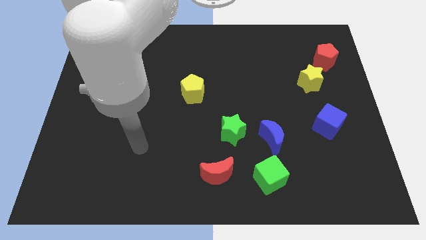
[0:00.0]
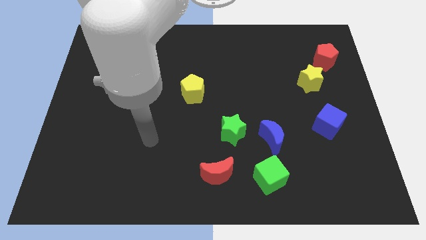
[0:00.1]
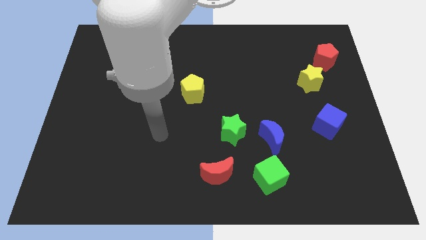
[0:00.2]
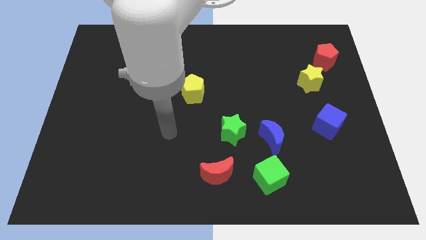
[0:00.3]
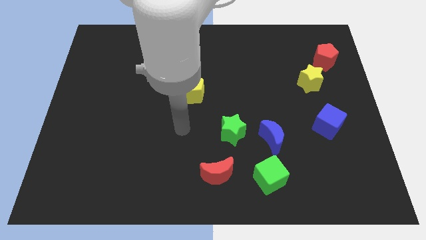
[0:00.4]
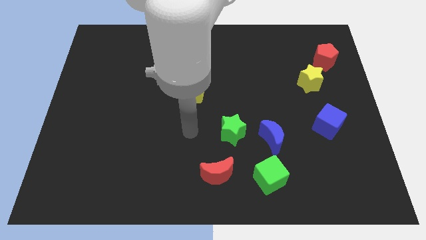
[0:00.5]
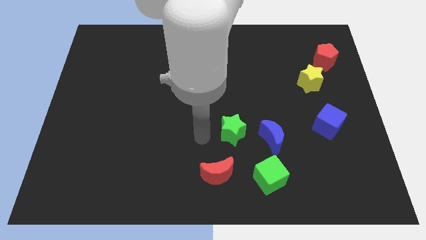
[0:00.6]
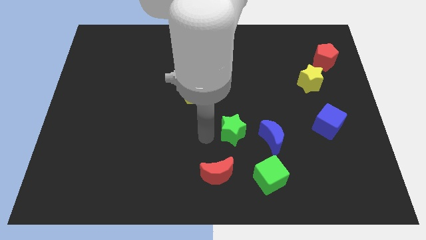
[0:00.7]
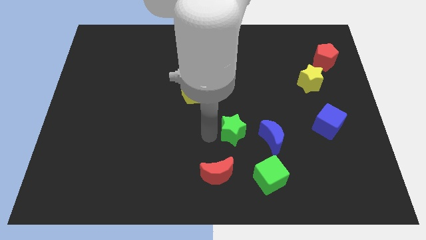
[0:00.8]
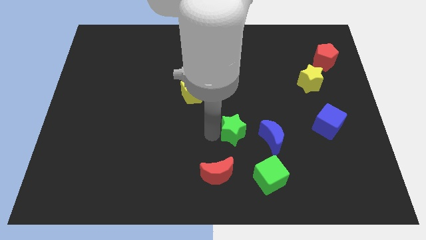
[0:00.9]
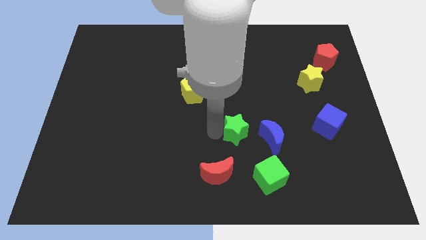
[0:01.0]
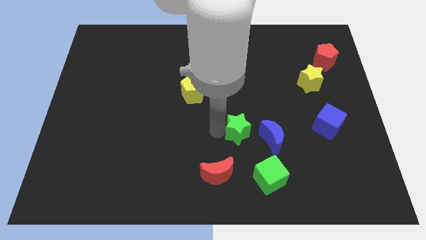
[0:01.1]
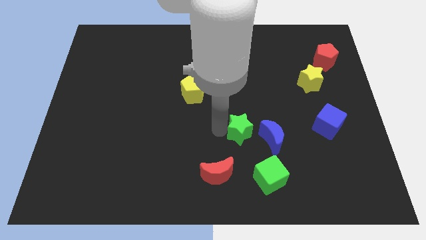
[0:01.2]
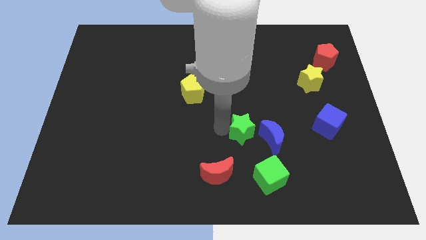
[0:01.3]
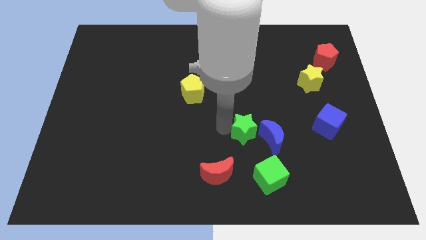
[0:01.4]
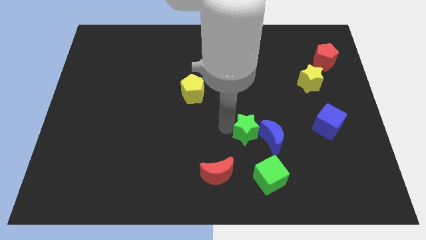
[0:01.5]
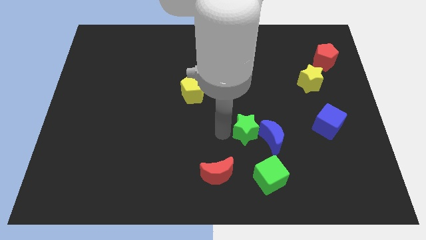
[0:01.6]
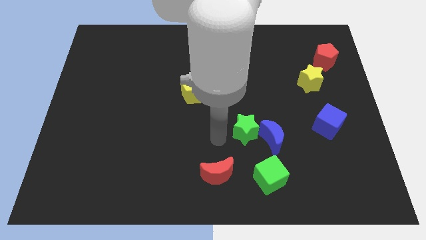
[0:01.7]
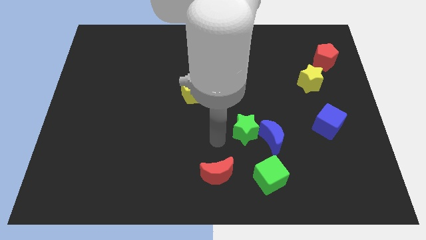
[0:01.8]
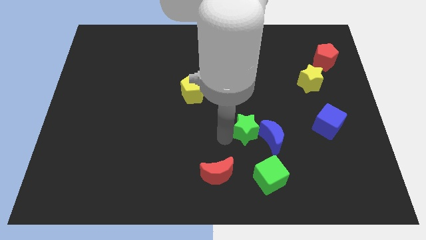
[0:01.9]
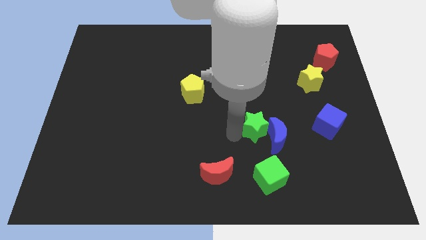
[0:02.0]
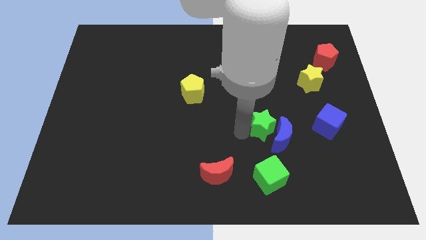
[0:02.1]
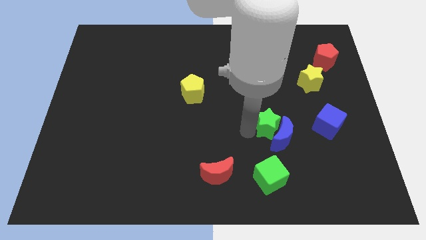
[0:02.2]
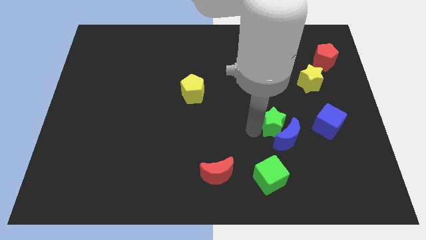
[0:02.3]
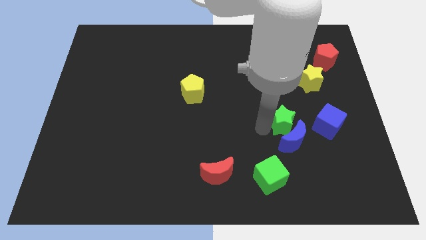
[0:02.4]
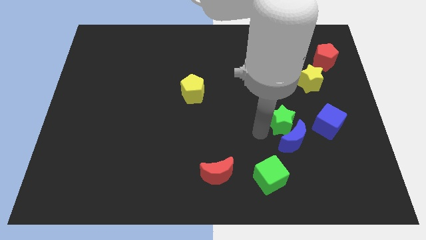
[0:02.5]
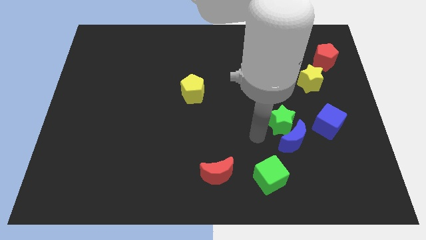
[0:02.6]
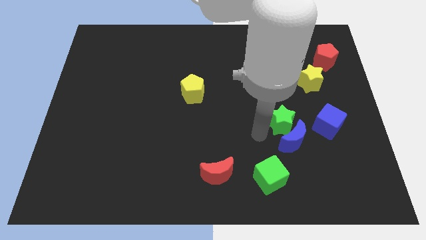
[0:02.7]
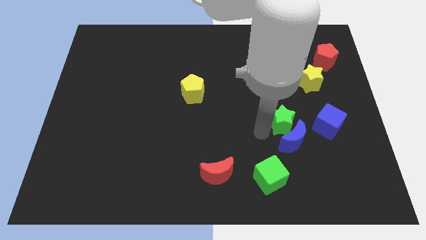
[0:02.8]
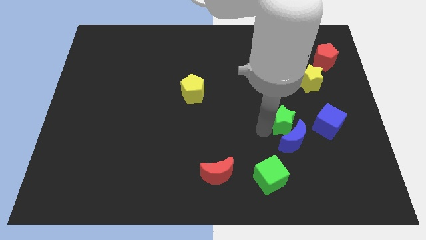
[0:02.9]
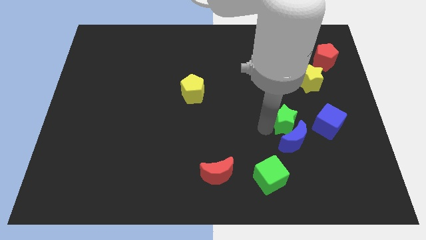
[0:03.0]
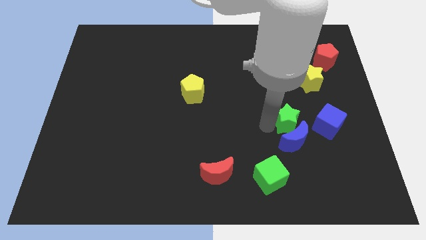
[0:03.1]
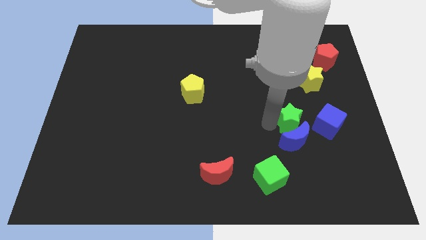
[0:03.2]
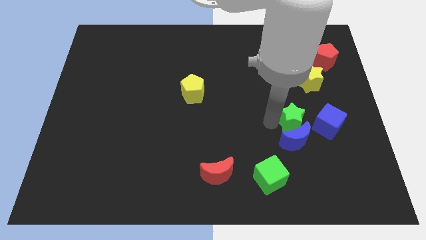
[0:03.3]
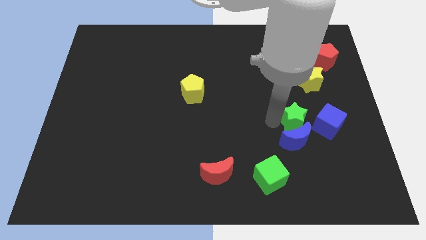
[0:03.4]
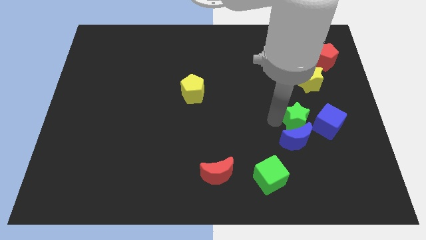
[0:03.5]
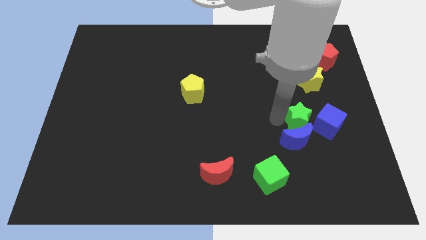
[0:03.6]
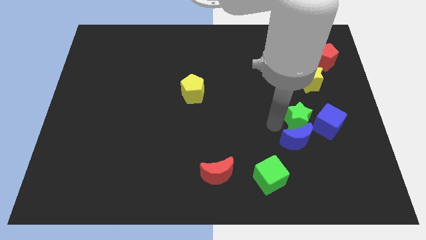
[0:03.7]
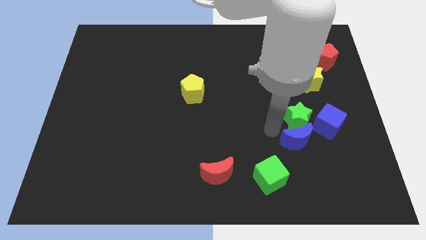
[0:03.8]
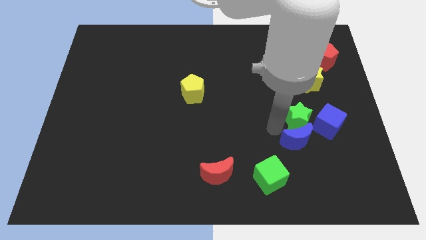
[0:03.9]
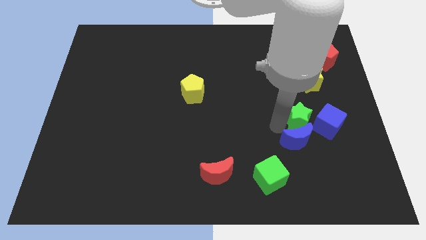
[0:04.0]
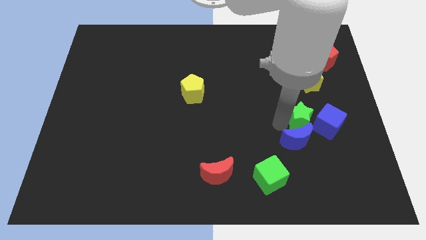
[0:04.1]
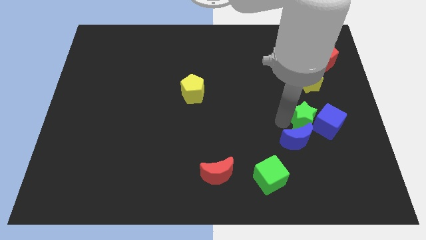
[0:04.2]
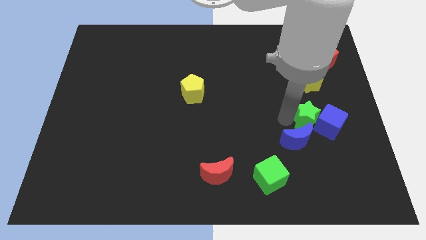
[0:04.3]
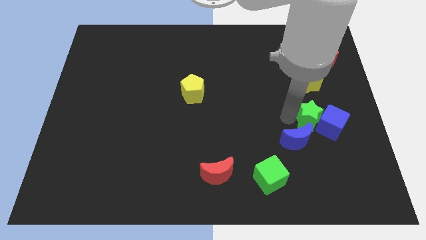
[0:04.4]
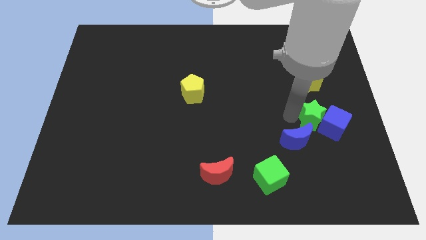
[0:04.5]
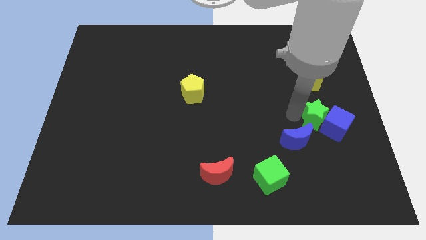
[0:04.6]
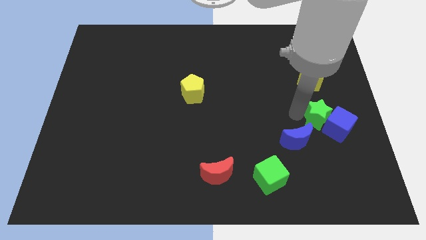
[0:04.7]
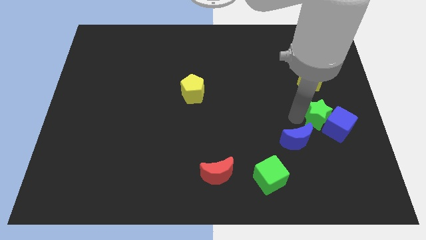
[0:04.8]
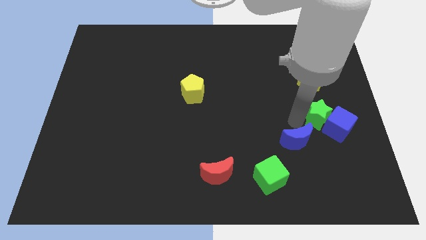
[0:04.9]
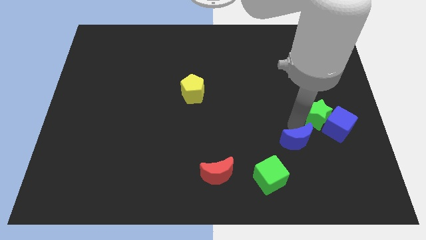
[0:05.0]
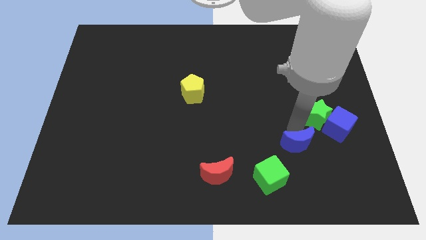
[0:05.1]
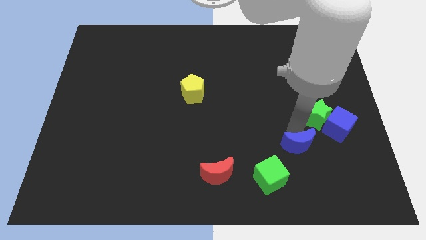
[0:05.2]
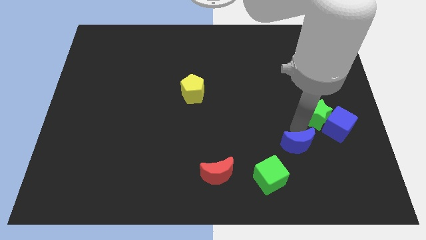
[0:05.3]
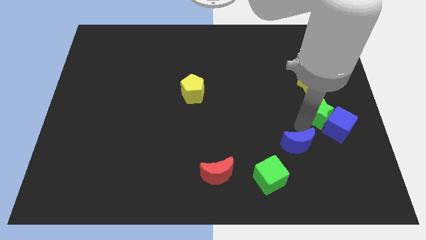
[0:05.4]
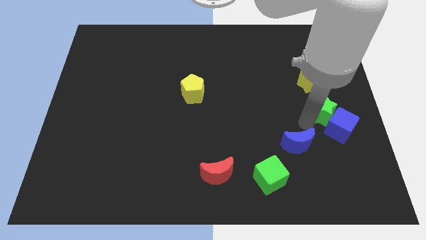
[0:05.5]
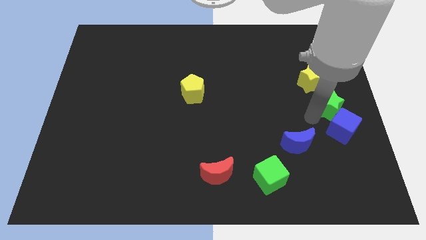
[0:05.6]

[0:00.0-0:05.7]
slide the green star to the right side

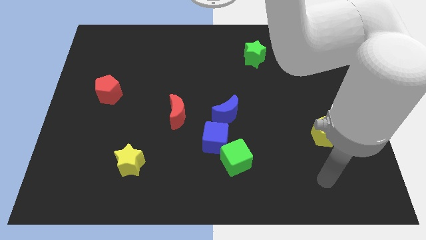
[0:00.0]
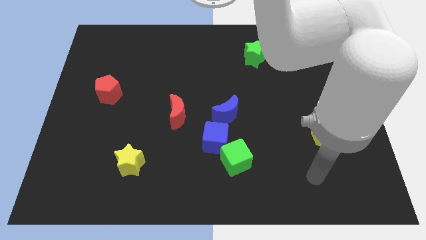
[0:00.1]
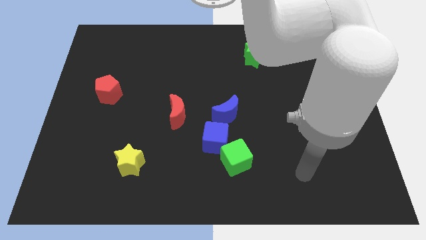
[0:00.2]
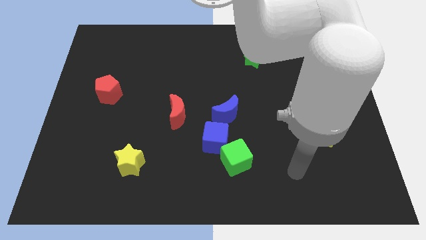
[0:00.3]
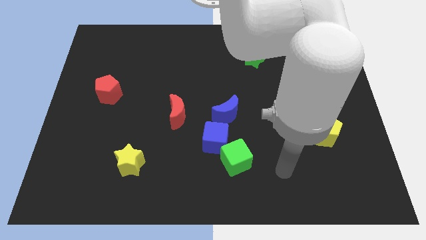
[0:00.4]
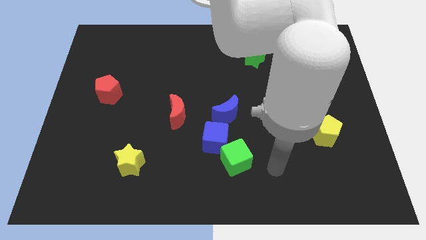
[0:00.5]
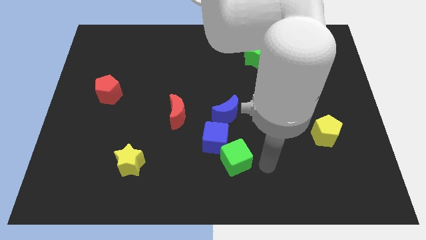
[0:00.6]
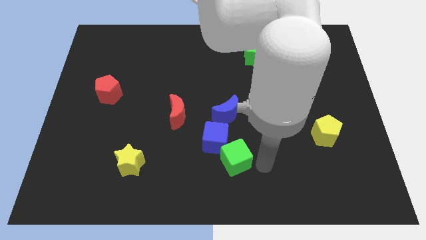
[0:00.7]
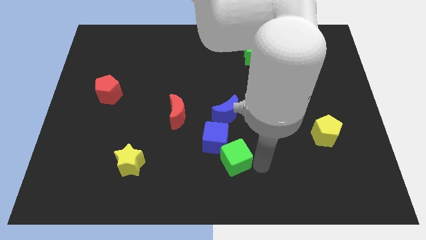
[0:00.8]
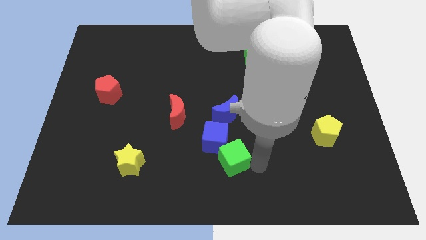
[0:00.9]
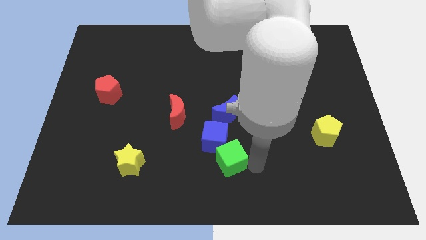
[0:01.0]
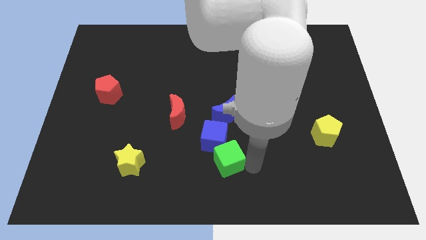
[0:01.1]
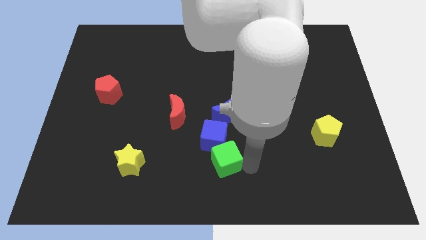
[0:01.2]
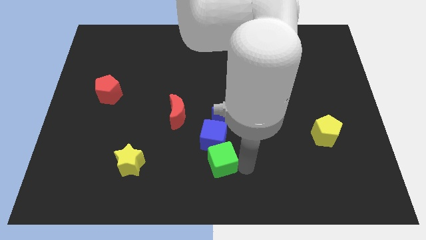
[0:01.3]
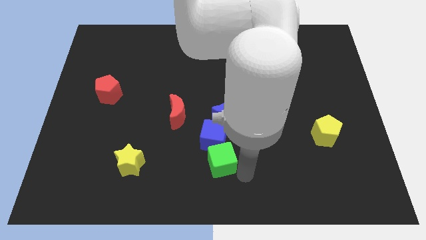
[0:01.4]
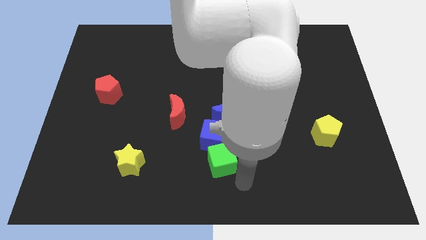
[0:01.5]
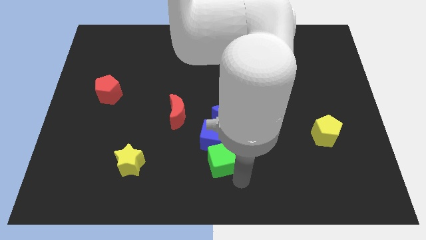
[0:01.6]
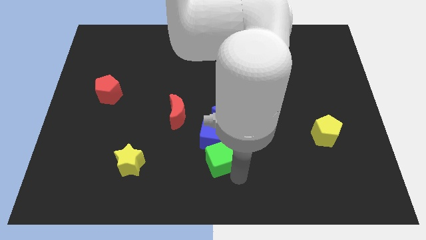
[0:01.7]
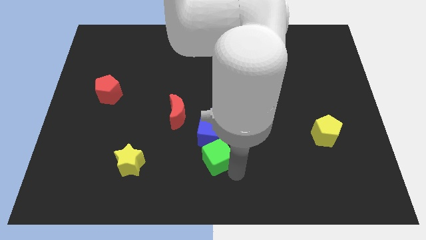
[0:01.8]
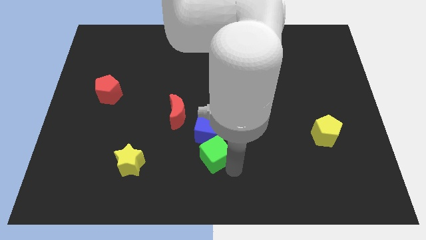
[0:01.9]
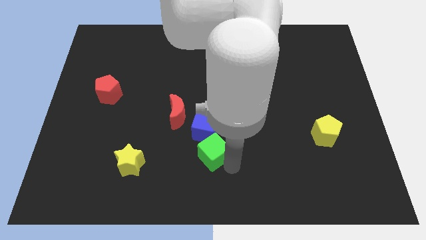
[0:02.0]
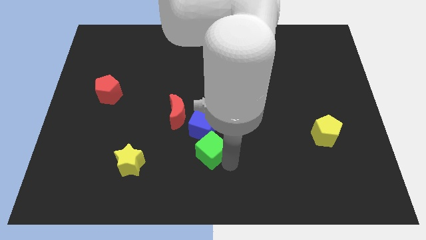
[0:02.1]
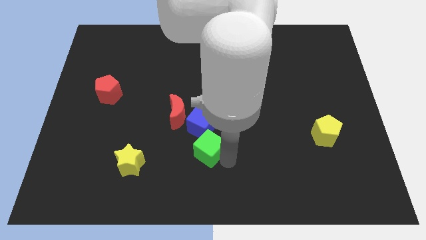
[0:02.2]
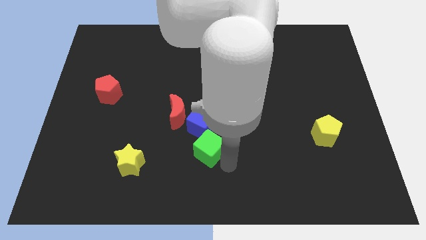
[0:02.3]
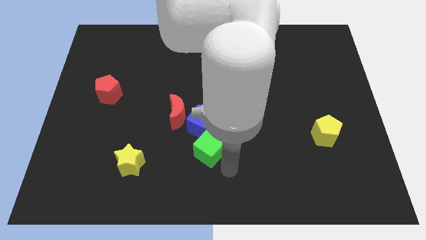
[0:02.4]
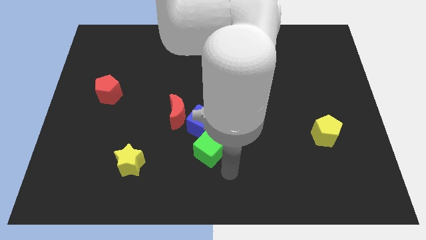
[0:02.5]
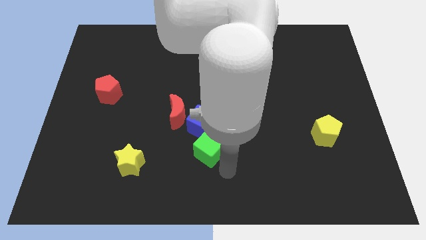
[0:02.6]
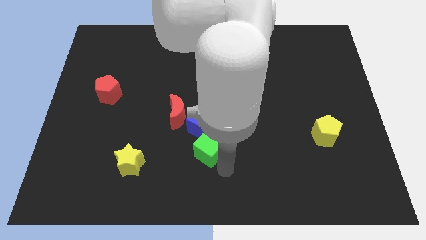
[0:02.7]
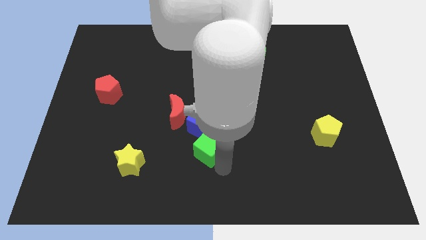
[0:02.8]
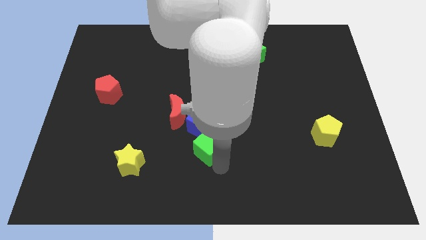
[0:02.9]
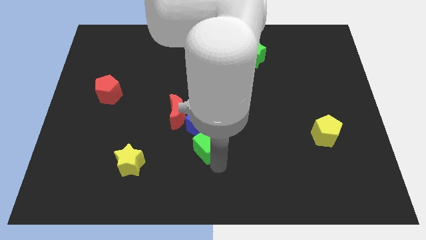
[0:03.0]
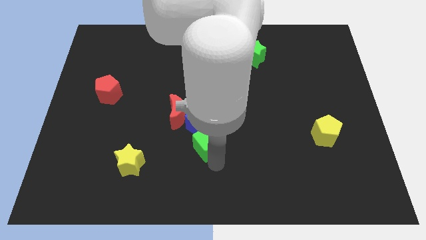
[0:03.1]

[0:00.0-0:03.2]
put the green cube to the center of the board
